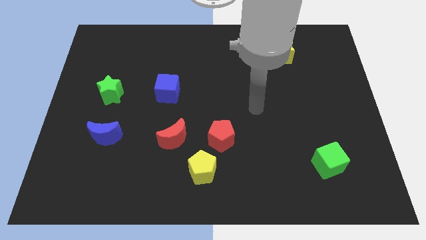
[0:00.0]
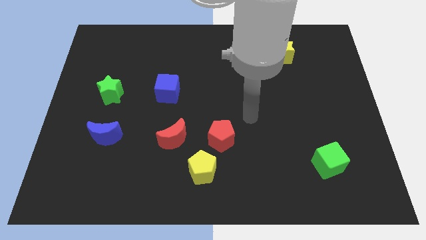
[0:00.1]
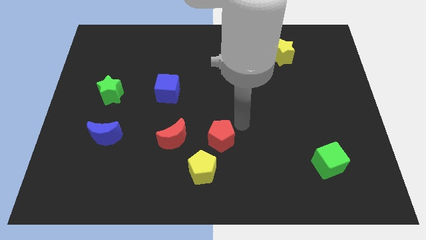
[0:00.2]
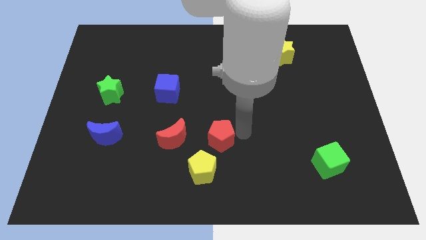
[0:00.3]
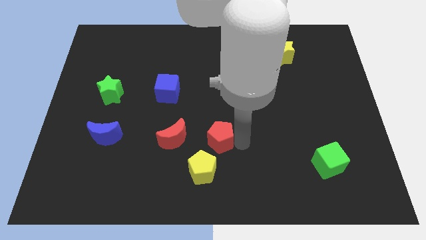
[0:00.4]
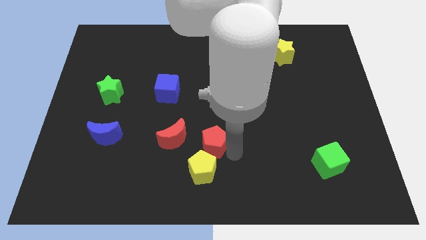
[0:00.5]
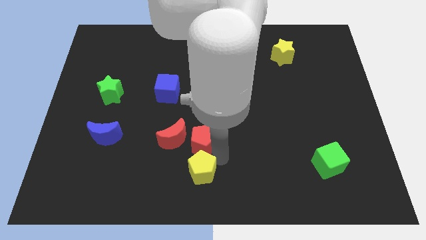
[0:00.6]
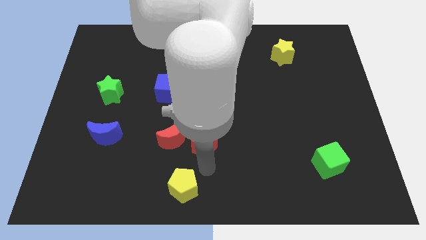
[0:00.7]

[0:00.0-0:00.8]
pull the red pentagon apart from the yellow pentagon

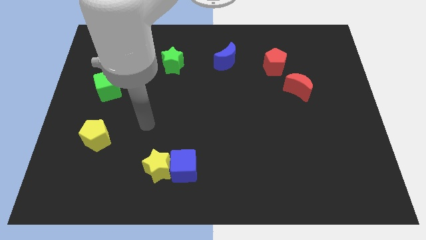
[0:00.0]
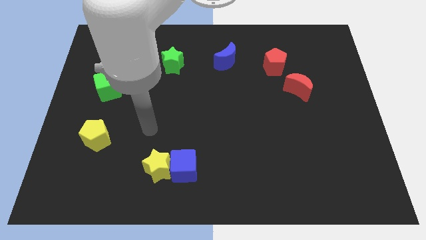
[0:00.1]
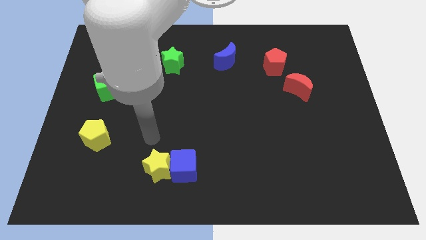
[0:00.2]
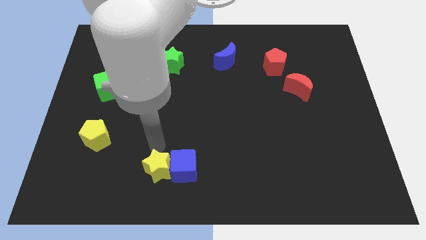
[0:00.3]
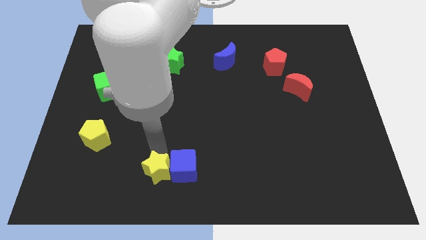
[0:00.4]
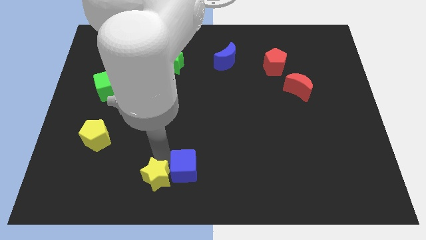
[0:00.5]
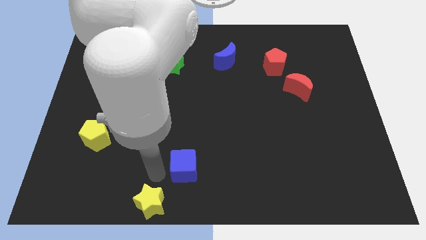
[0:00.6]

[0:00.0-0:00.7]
move the blue cube away from the yellow star

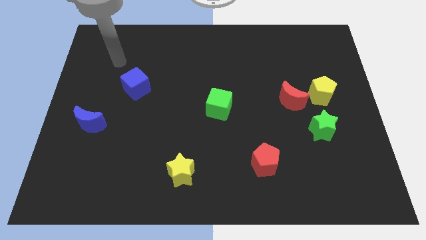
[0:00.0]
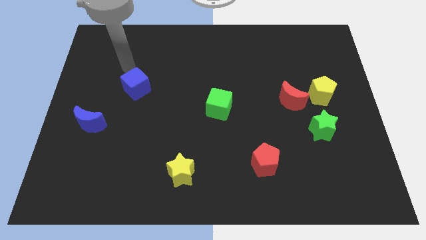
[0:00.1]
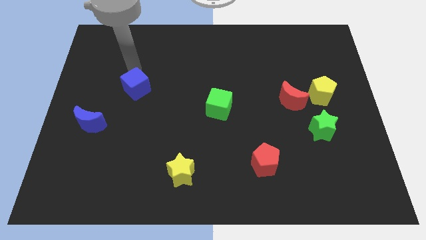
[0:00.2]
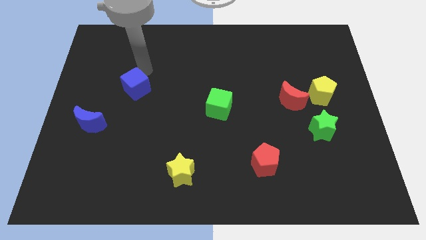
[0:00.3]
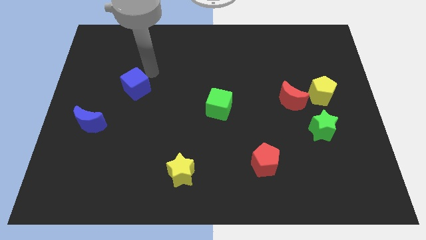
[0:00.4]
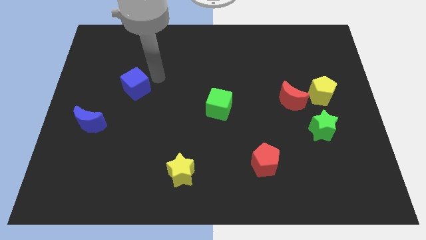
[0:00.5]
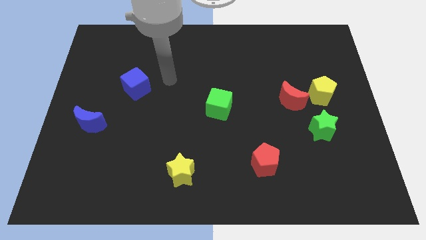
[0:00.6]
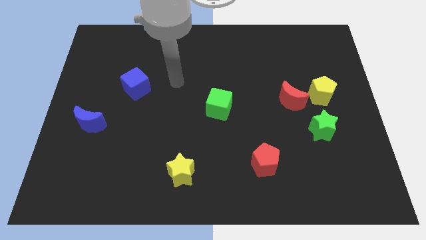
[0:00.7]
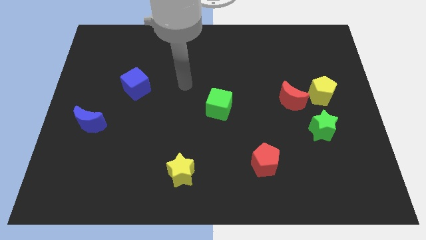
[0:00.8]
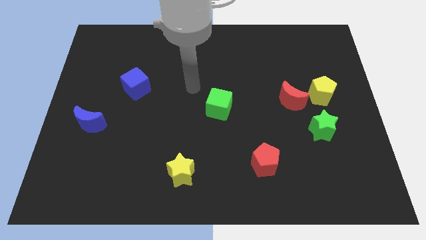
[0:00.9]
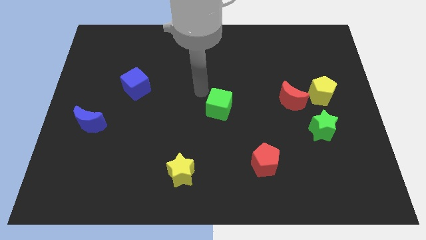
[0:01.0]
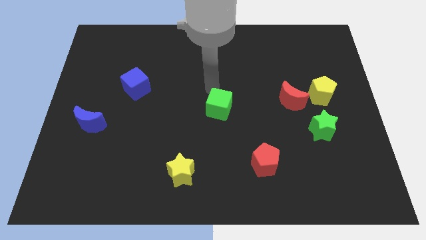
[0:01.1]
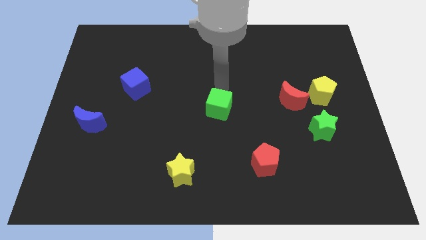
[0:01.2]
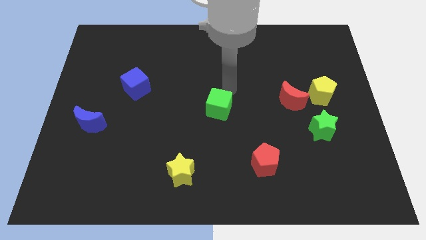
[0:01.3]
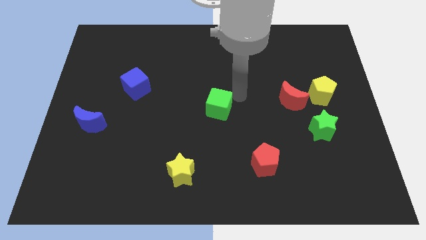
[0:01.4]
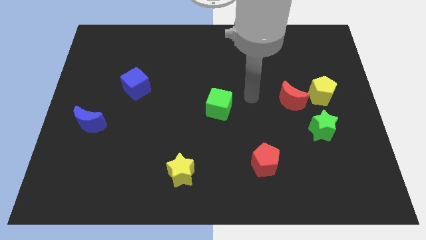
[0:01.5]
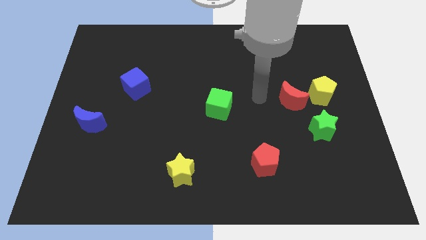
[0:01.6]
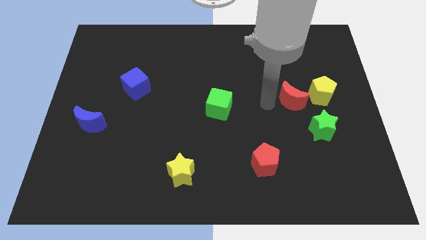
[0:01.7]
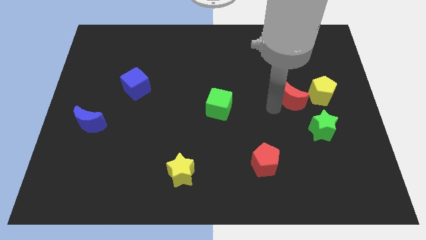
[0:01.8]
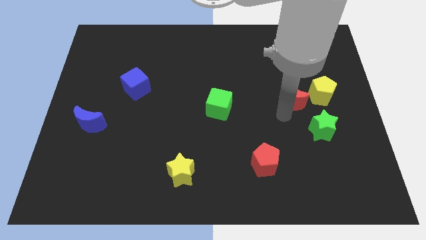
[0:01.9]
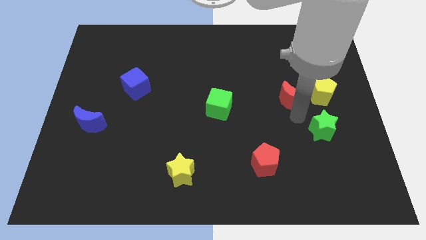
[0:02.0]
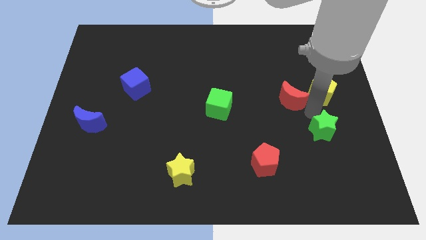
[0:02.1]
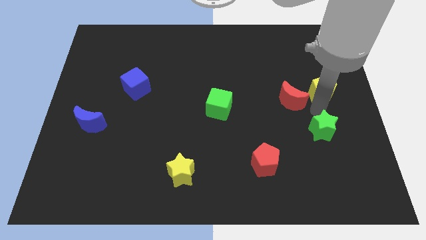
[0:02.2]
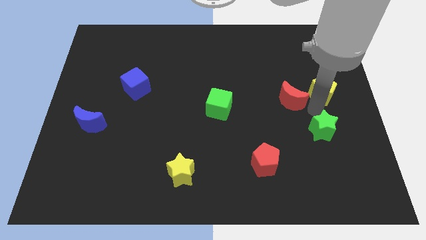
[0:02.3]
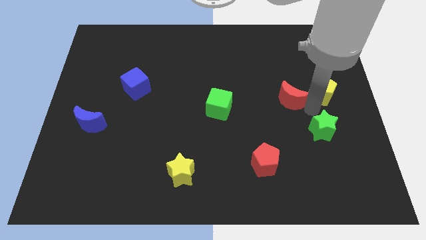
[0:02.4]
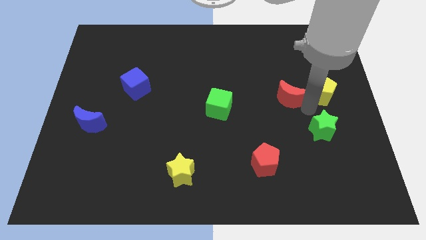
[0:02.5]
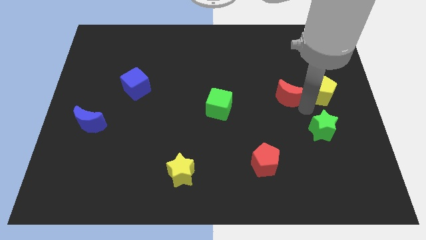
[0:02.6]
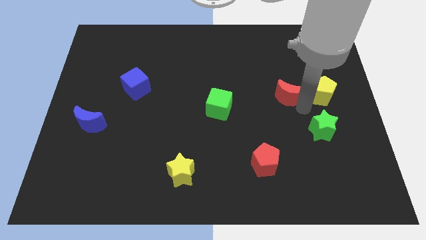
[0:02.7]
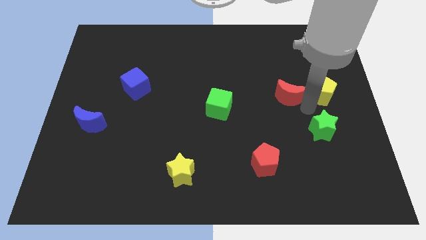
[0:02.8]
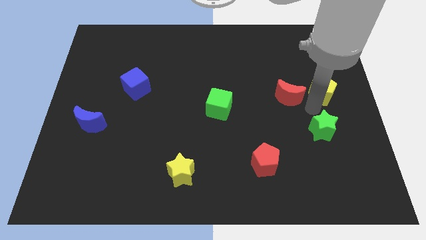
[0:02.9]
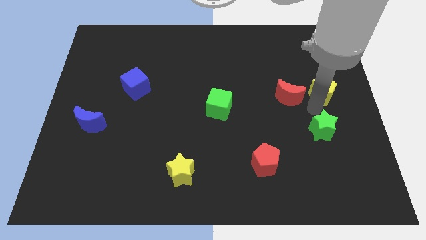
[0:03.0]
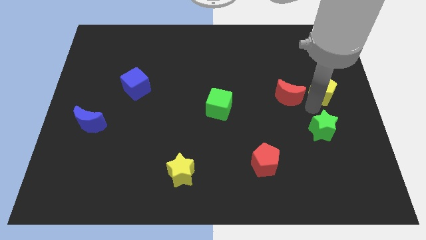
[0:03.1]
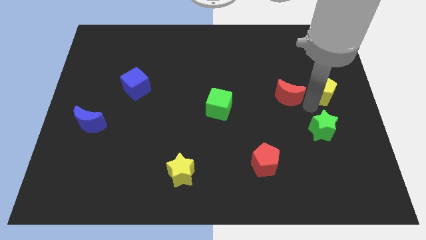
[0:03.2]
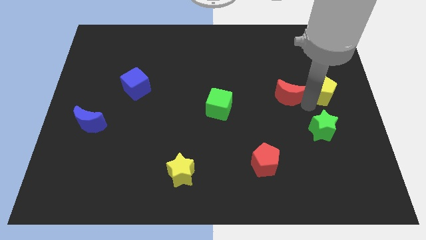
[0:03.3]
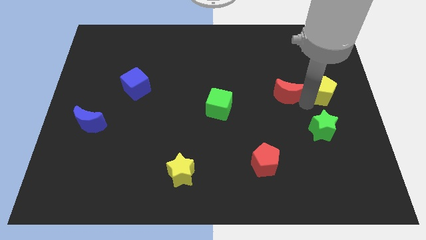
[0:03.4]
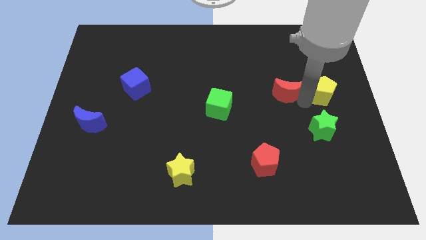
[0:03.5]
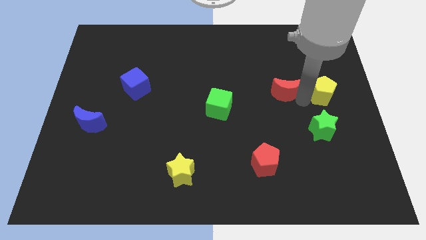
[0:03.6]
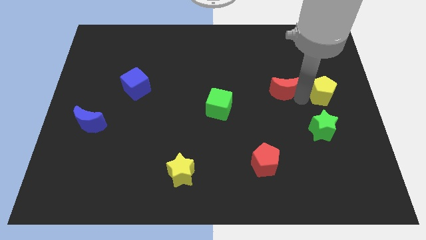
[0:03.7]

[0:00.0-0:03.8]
separate the red moon from the yellow pentagon and green star

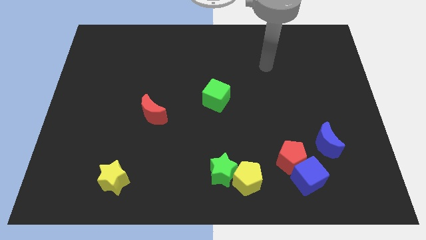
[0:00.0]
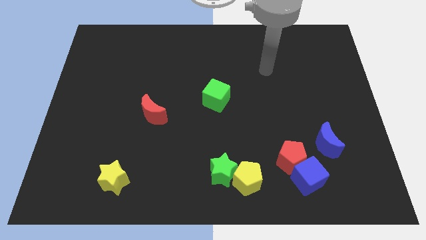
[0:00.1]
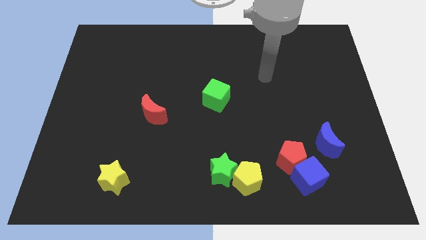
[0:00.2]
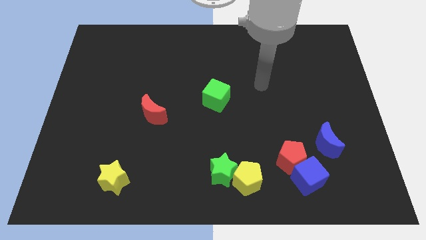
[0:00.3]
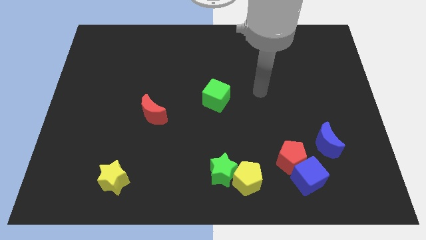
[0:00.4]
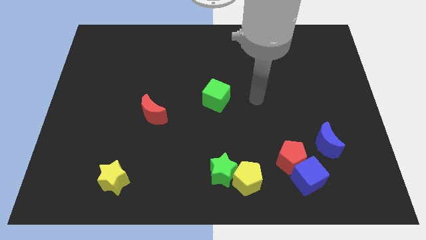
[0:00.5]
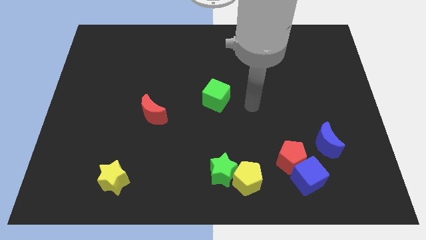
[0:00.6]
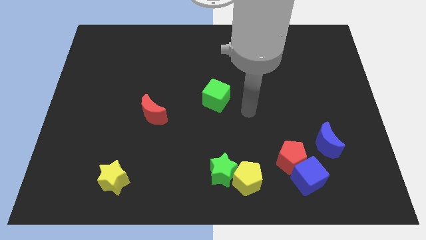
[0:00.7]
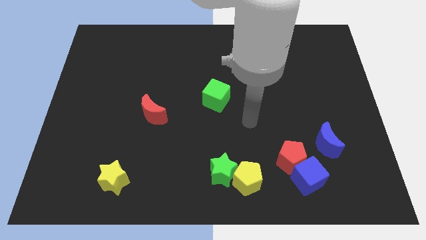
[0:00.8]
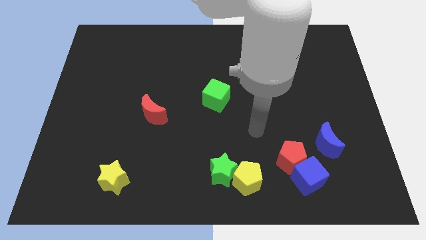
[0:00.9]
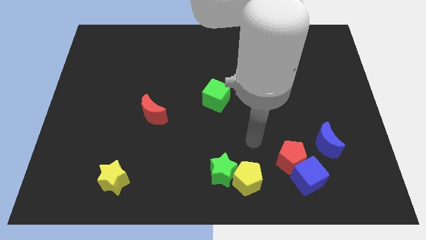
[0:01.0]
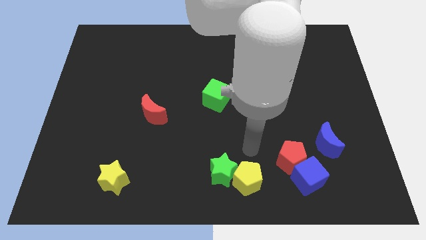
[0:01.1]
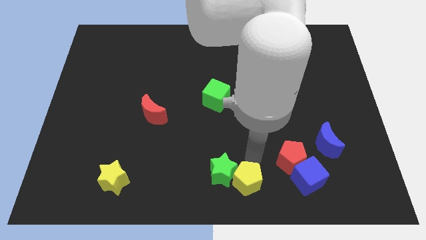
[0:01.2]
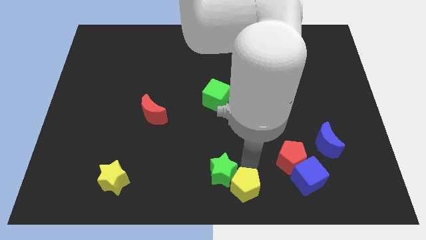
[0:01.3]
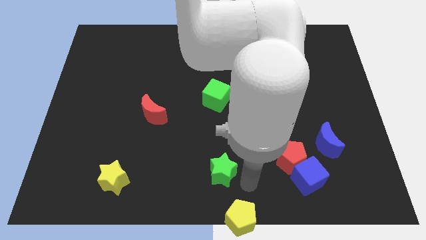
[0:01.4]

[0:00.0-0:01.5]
move the green star away from the yellow pentagon

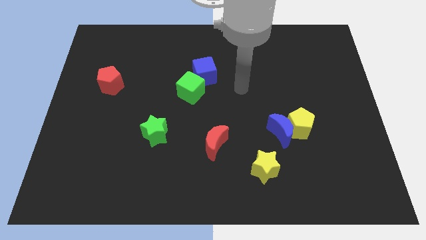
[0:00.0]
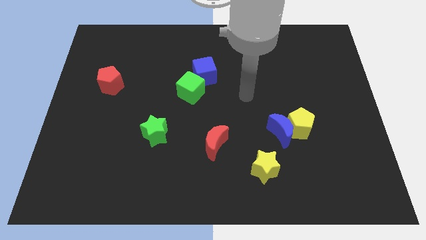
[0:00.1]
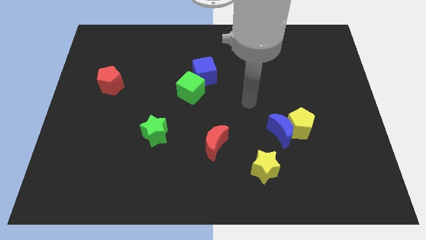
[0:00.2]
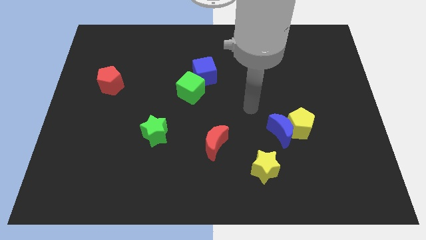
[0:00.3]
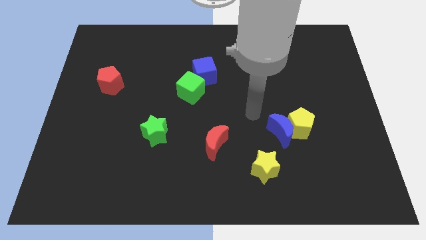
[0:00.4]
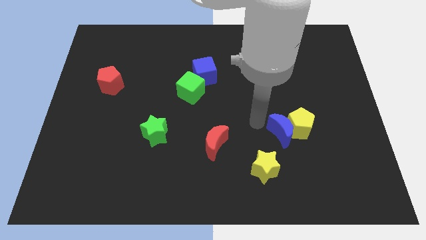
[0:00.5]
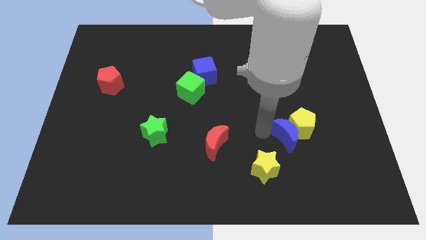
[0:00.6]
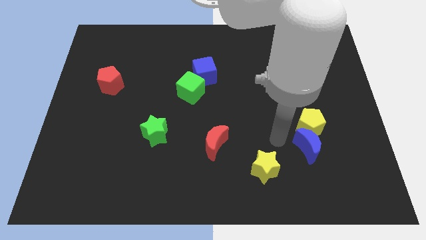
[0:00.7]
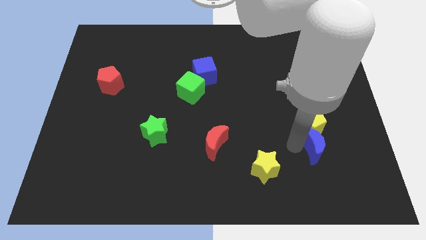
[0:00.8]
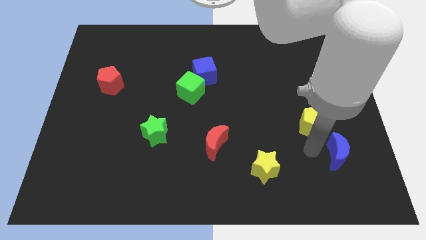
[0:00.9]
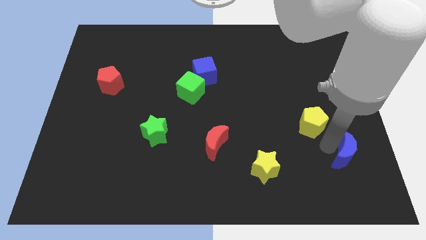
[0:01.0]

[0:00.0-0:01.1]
move the yellow pentagon away from the blue moon

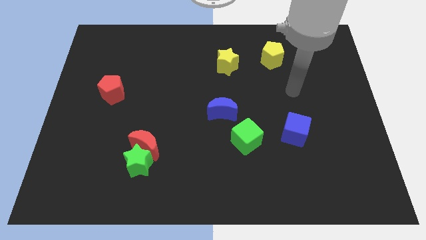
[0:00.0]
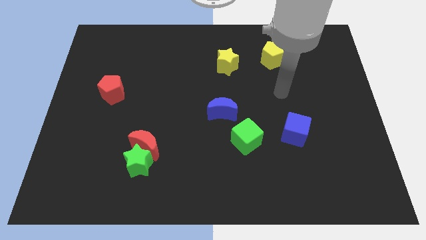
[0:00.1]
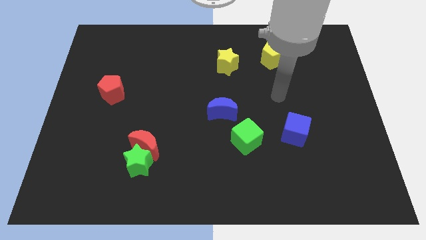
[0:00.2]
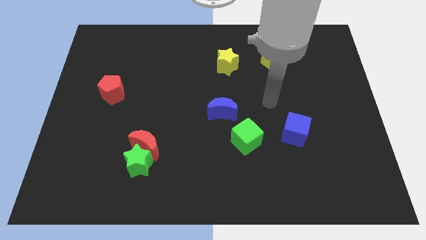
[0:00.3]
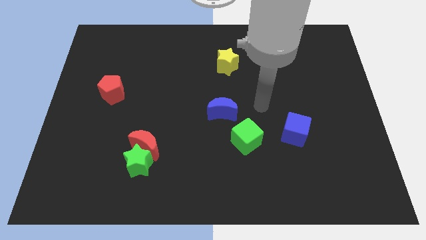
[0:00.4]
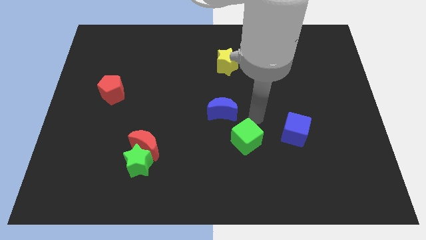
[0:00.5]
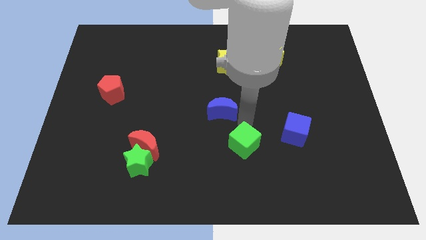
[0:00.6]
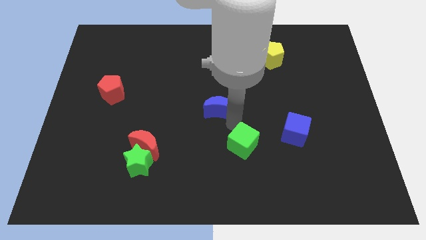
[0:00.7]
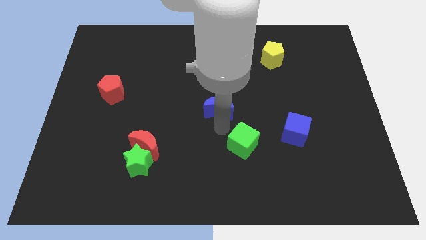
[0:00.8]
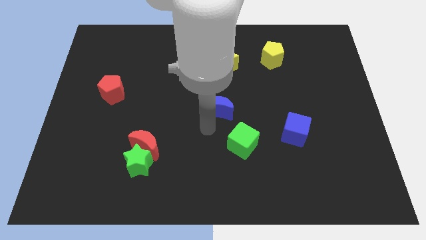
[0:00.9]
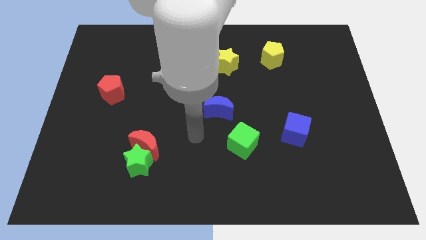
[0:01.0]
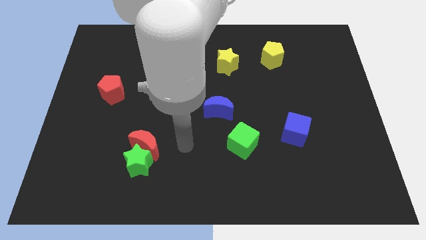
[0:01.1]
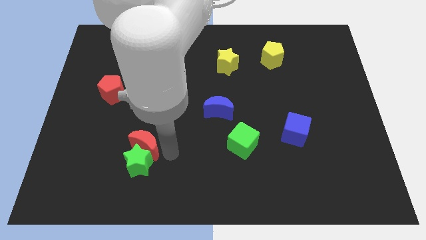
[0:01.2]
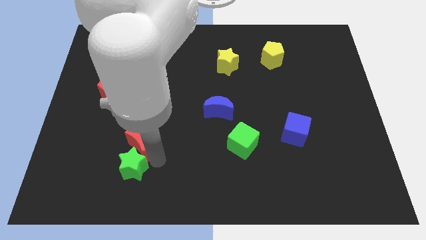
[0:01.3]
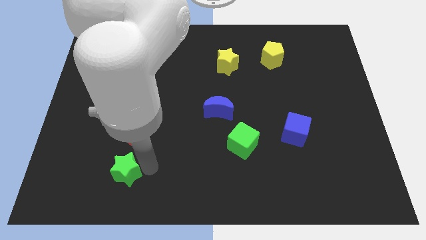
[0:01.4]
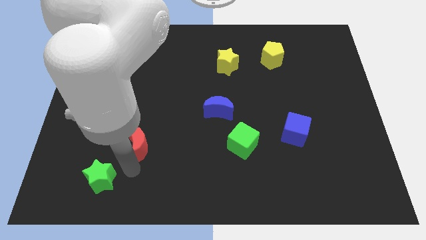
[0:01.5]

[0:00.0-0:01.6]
separate the red moon from the green star
